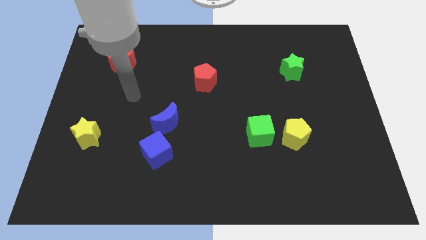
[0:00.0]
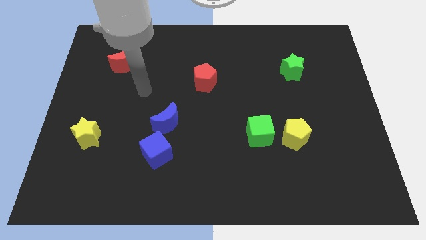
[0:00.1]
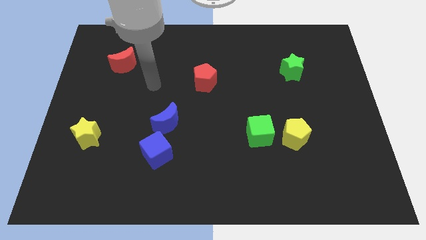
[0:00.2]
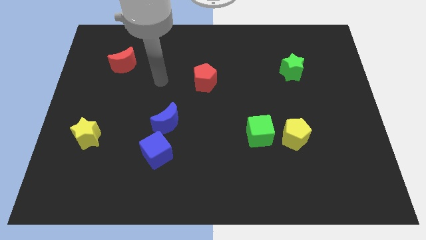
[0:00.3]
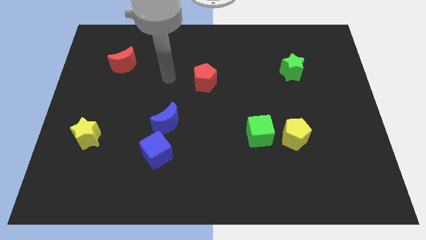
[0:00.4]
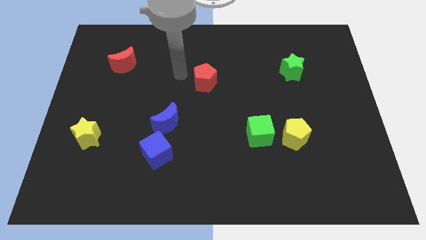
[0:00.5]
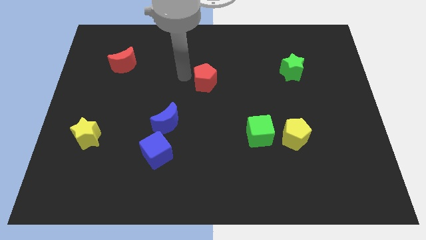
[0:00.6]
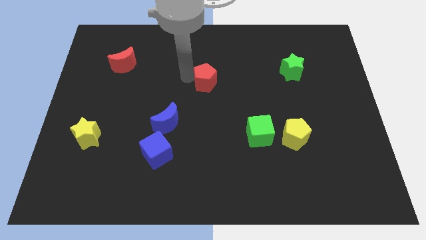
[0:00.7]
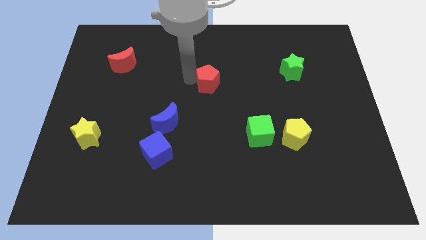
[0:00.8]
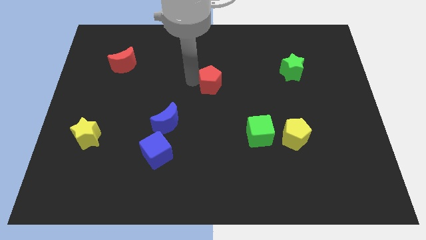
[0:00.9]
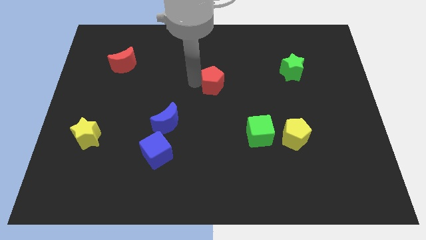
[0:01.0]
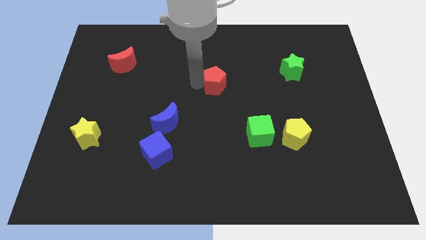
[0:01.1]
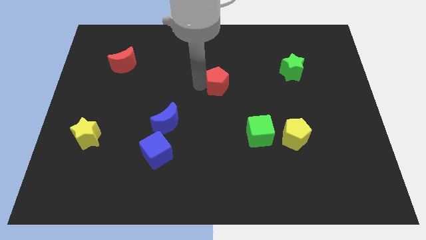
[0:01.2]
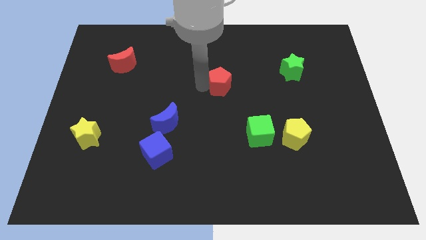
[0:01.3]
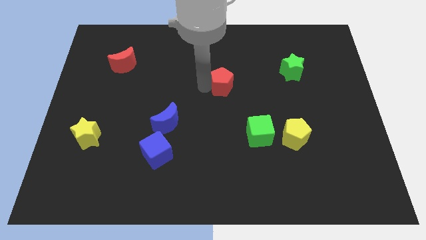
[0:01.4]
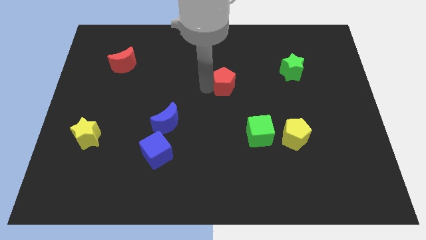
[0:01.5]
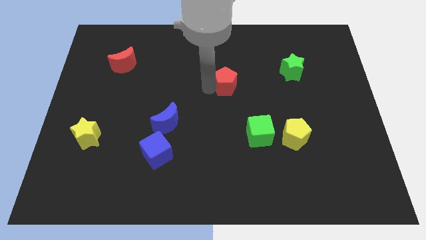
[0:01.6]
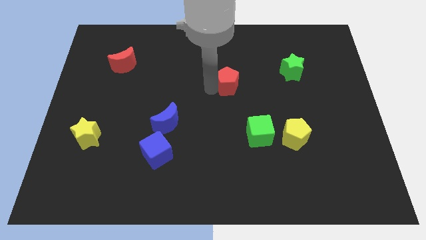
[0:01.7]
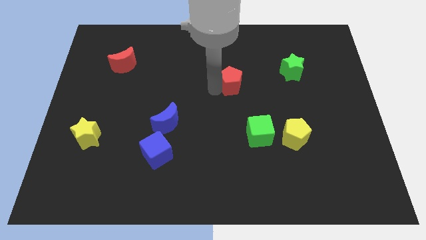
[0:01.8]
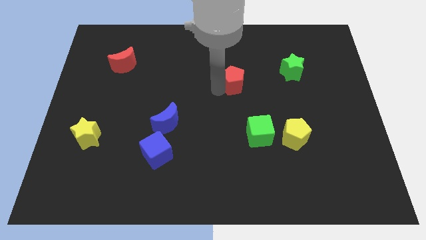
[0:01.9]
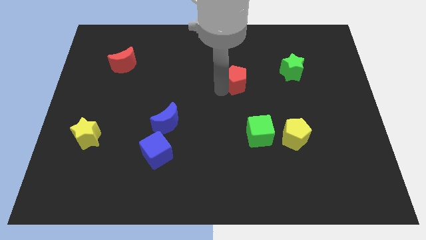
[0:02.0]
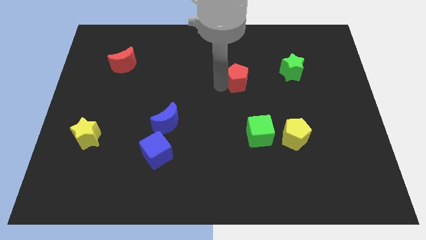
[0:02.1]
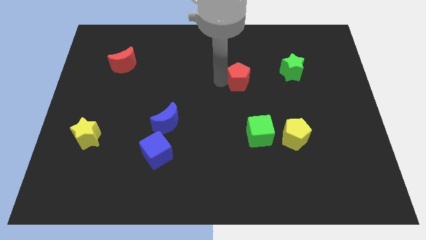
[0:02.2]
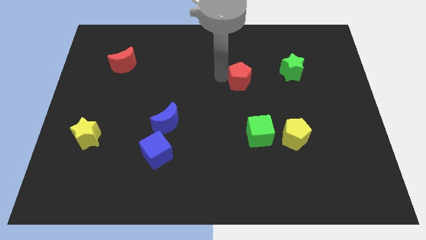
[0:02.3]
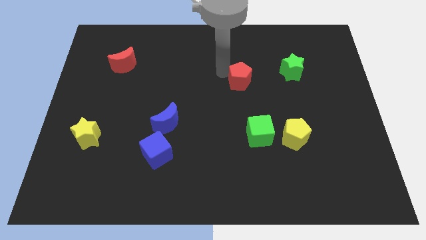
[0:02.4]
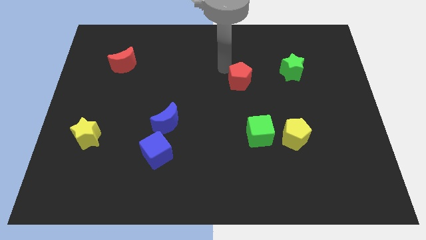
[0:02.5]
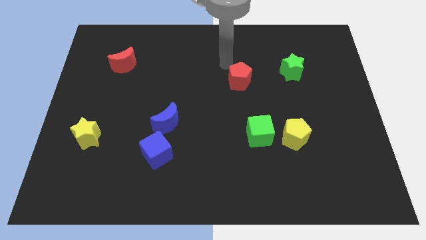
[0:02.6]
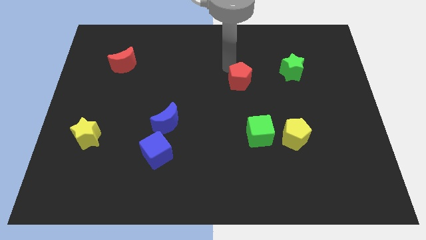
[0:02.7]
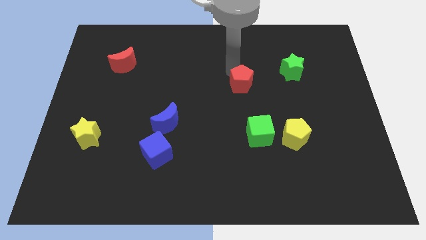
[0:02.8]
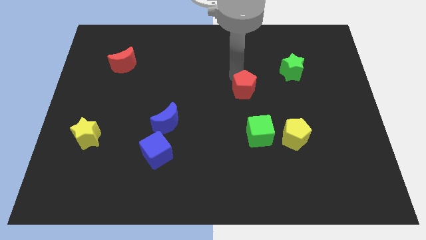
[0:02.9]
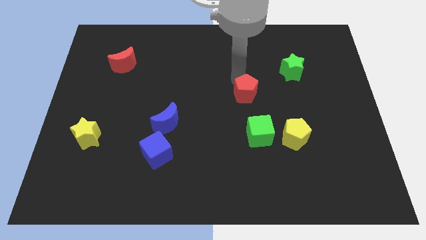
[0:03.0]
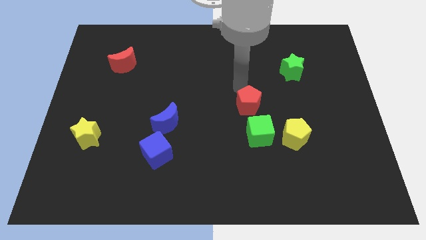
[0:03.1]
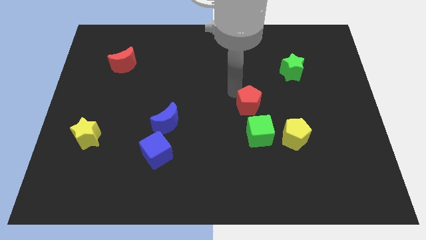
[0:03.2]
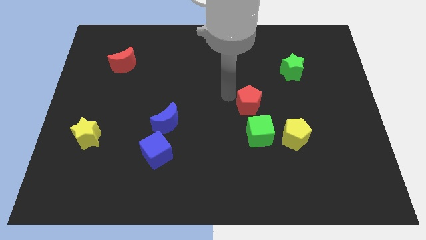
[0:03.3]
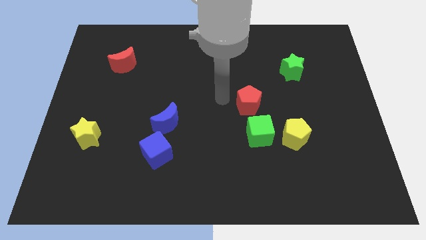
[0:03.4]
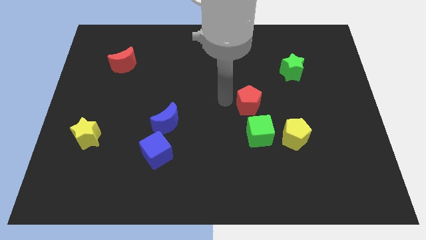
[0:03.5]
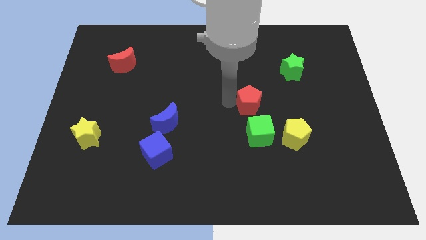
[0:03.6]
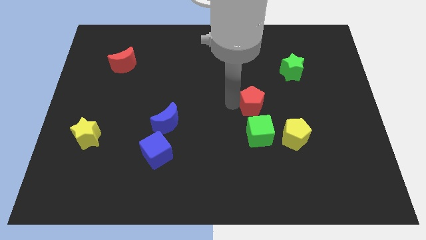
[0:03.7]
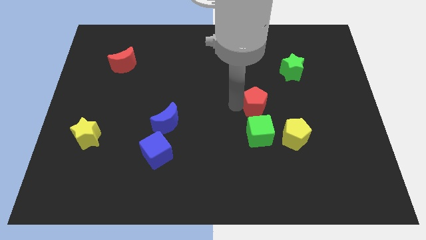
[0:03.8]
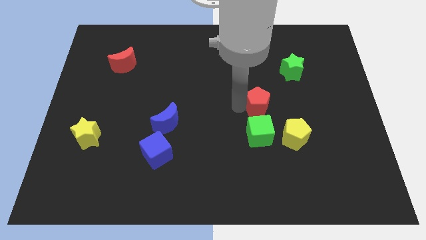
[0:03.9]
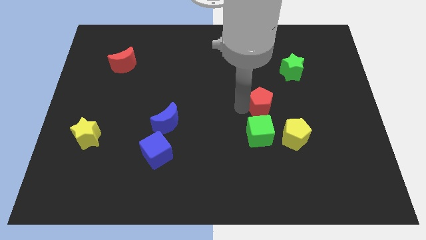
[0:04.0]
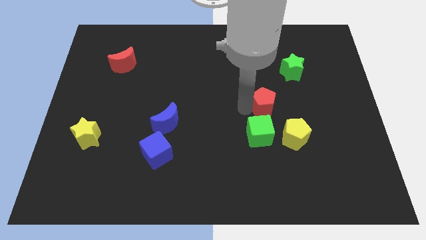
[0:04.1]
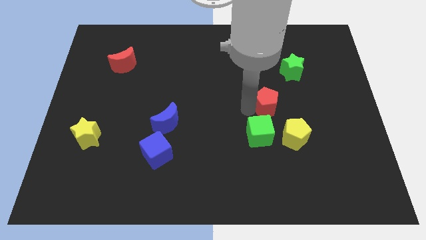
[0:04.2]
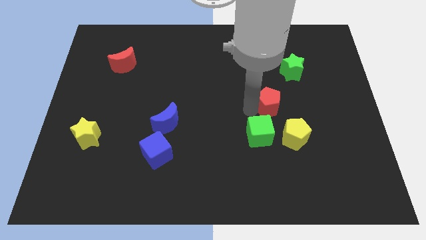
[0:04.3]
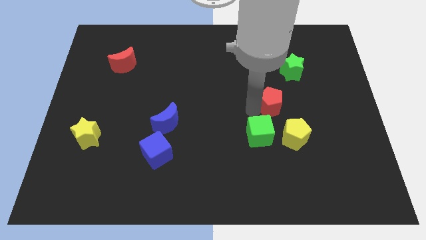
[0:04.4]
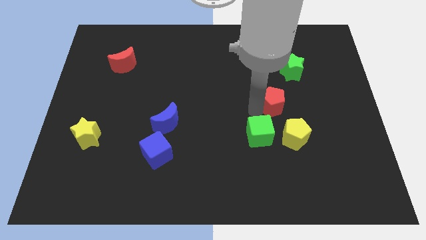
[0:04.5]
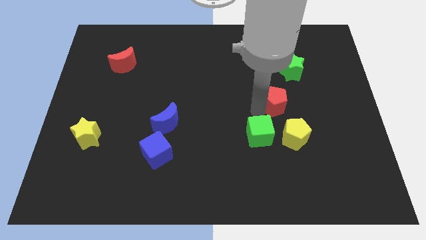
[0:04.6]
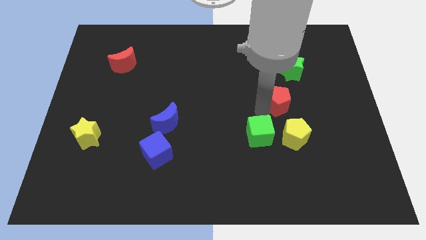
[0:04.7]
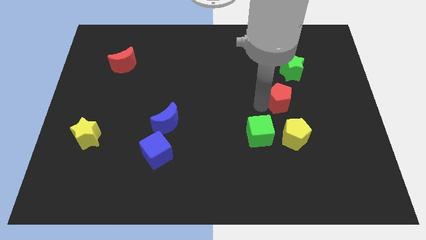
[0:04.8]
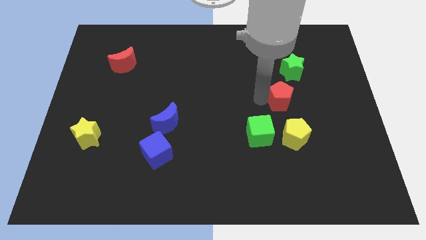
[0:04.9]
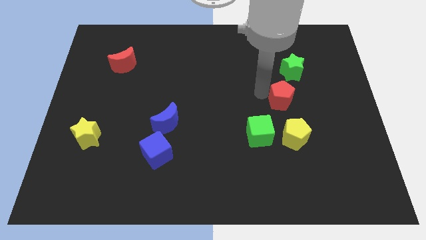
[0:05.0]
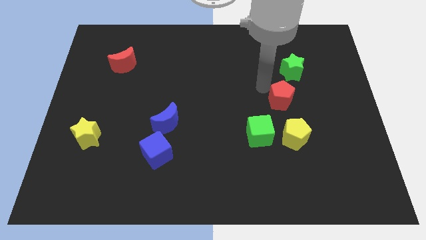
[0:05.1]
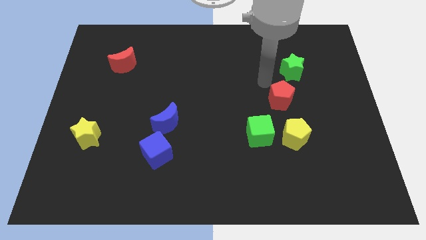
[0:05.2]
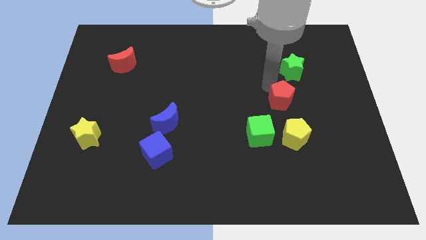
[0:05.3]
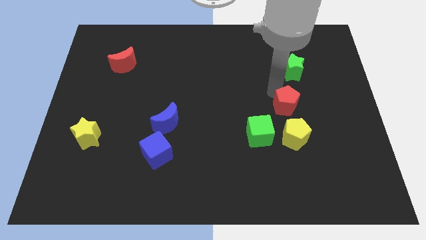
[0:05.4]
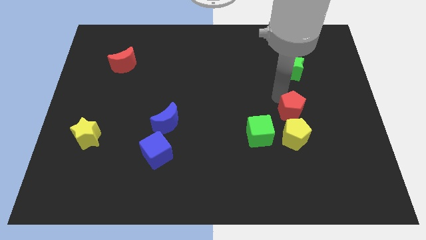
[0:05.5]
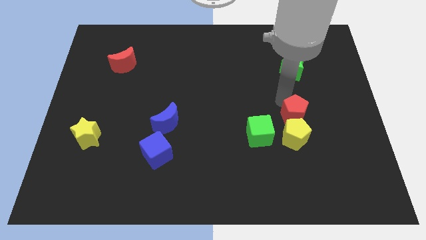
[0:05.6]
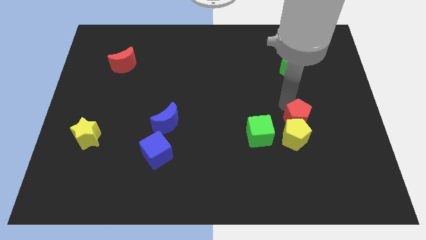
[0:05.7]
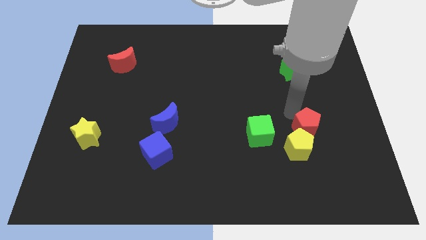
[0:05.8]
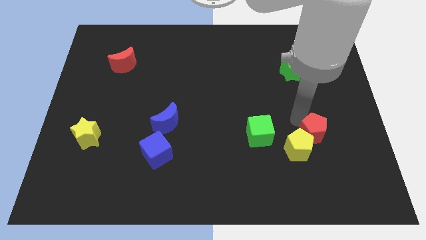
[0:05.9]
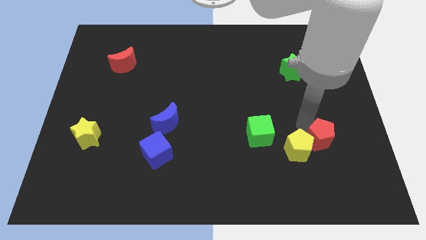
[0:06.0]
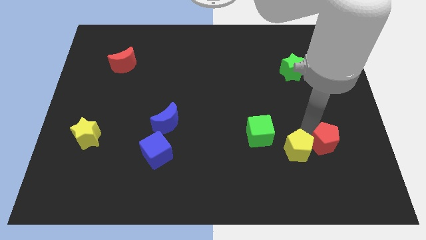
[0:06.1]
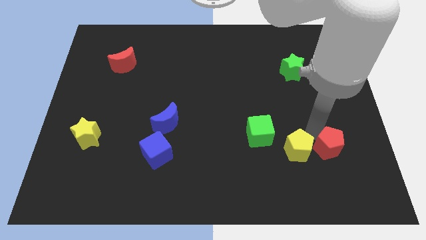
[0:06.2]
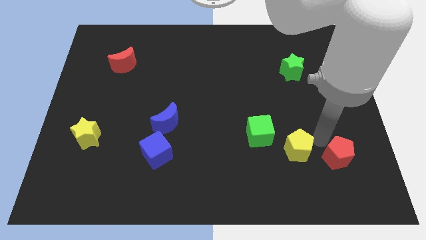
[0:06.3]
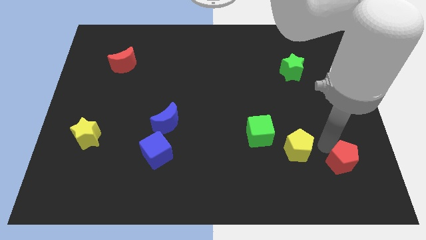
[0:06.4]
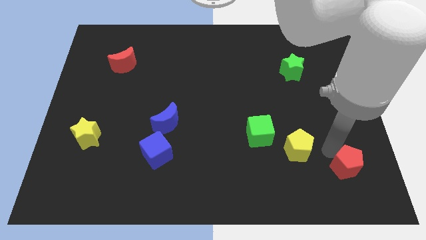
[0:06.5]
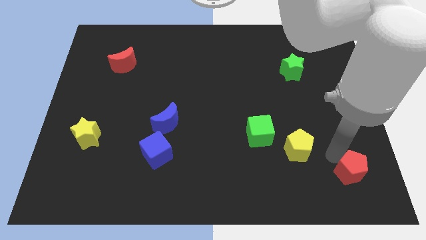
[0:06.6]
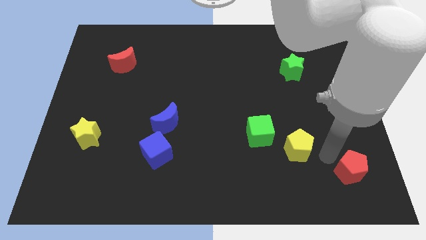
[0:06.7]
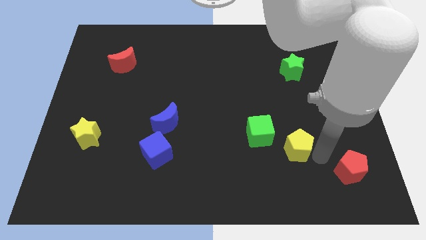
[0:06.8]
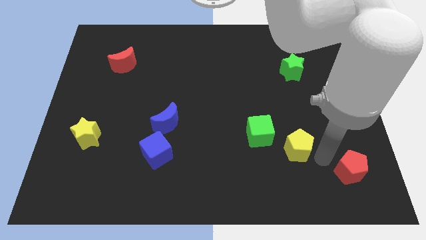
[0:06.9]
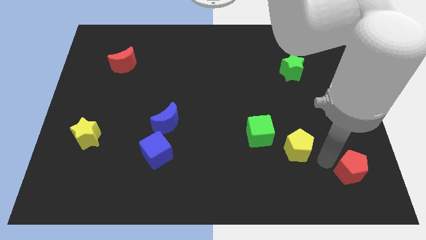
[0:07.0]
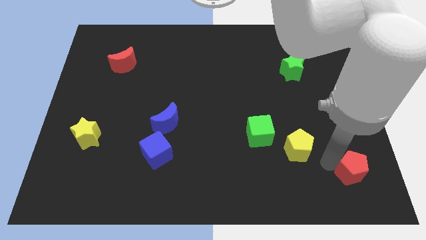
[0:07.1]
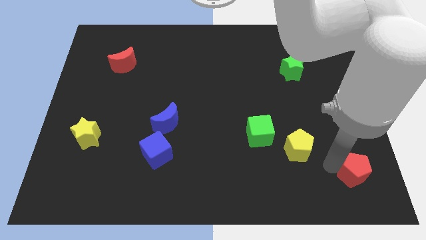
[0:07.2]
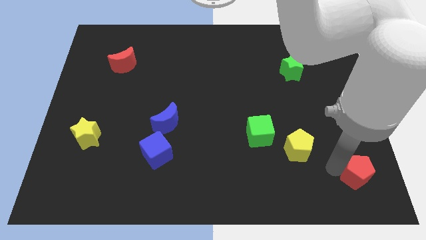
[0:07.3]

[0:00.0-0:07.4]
push the red pentagon to the lower right corner
